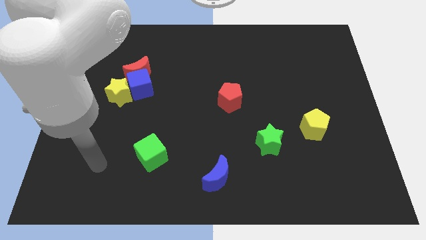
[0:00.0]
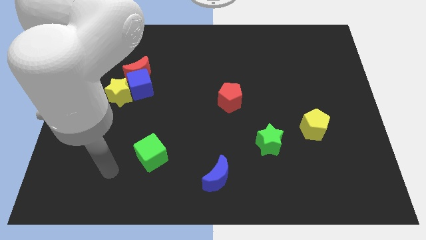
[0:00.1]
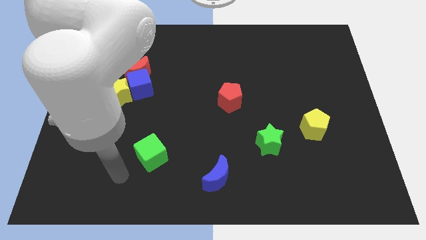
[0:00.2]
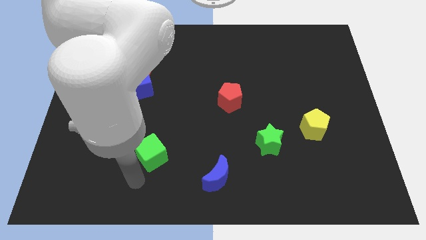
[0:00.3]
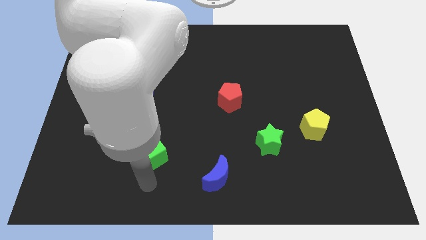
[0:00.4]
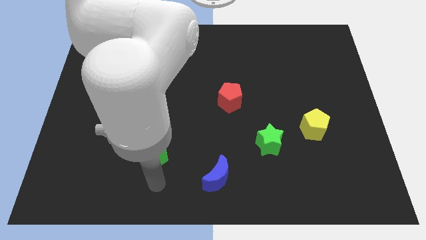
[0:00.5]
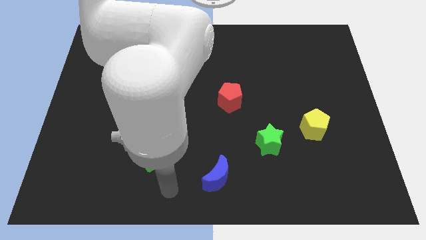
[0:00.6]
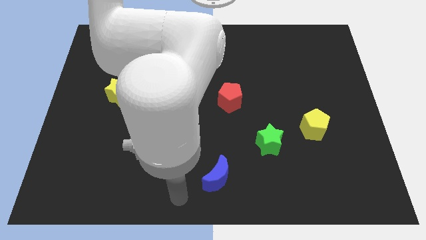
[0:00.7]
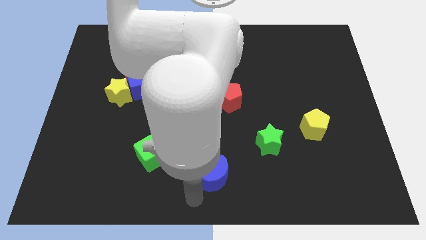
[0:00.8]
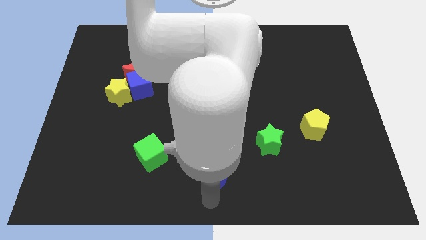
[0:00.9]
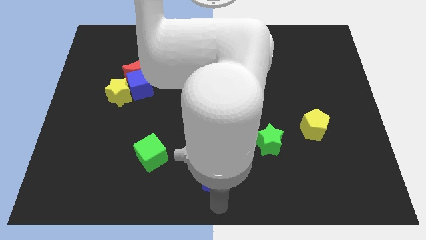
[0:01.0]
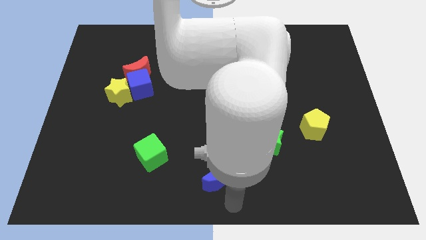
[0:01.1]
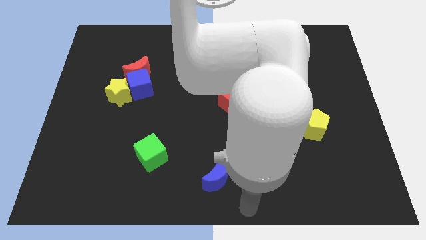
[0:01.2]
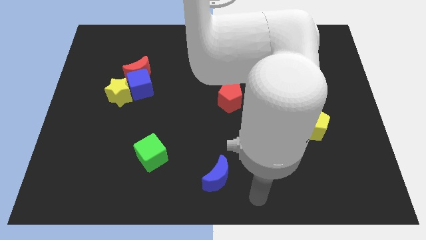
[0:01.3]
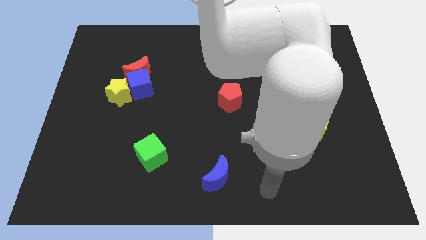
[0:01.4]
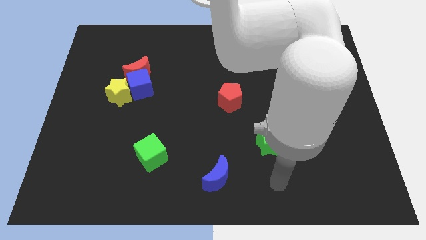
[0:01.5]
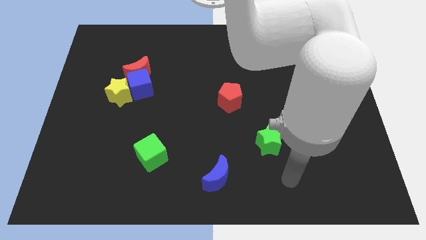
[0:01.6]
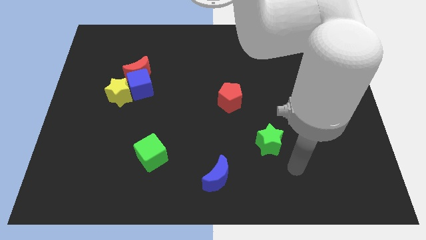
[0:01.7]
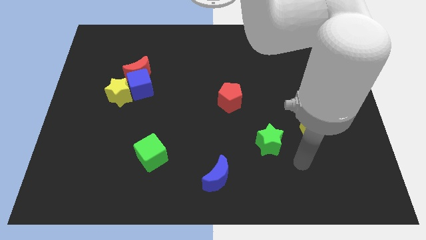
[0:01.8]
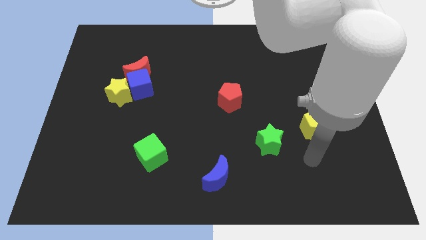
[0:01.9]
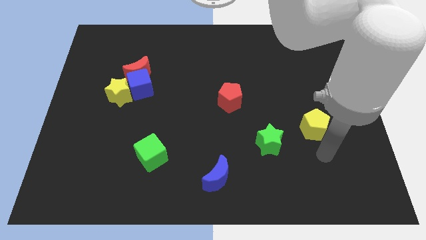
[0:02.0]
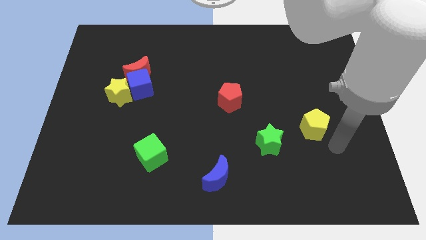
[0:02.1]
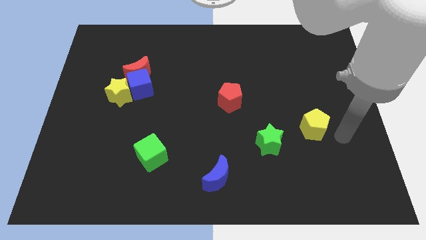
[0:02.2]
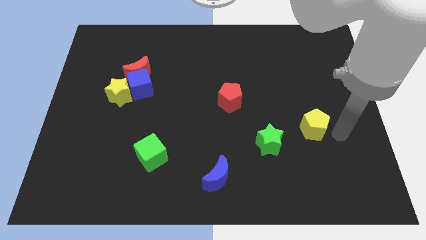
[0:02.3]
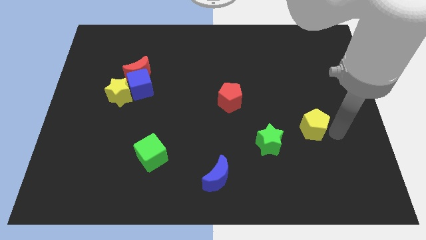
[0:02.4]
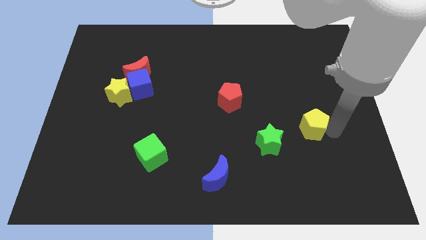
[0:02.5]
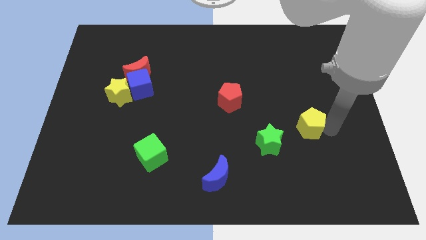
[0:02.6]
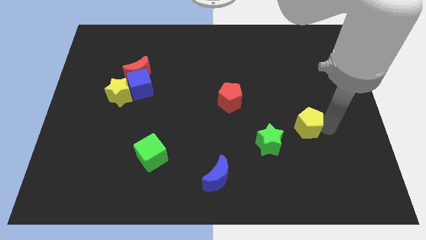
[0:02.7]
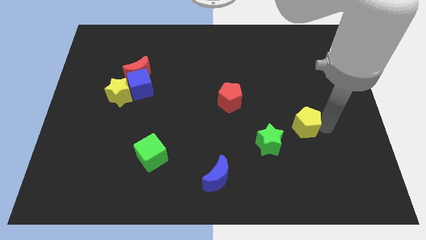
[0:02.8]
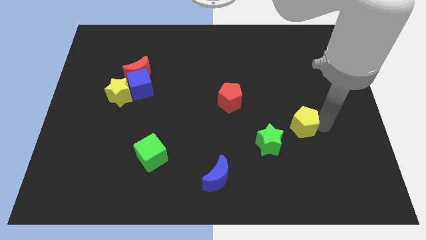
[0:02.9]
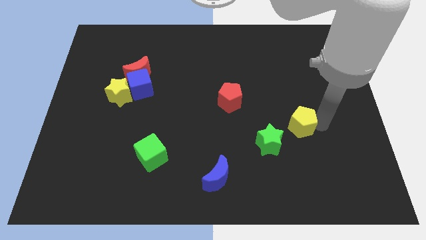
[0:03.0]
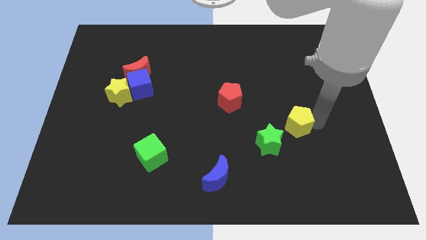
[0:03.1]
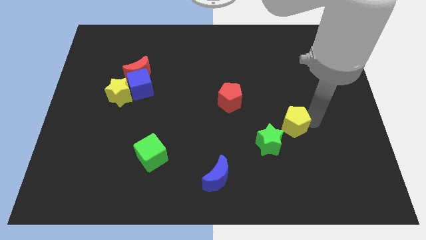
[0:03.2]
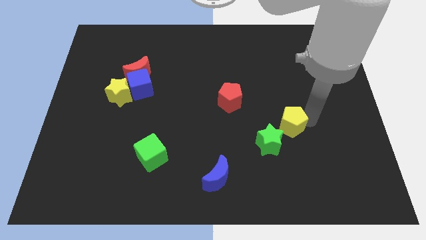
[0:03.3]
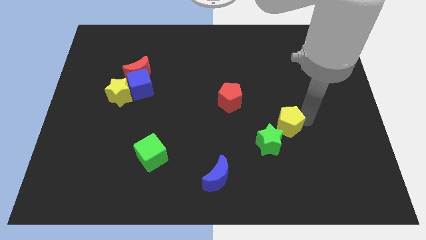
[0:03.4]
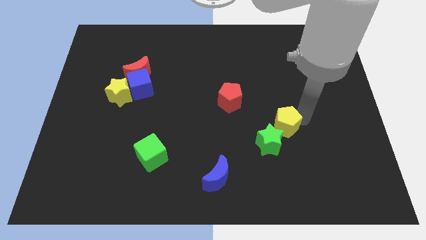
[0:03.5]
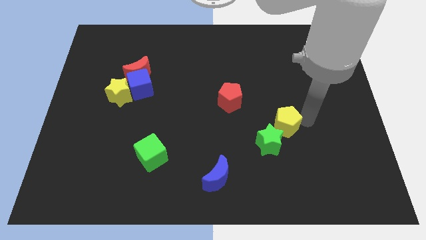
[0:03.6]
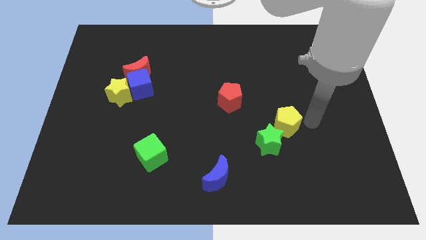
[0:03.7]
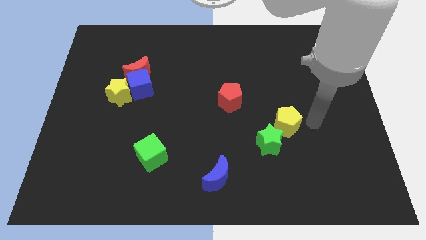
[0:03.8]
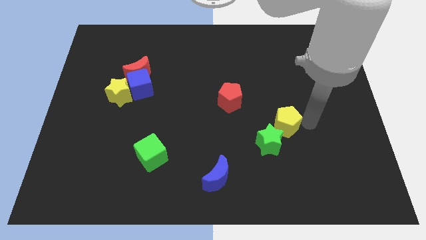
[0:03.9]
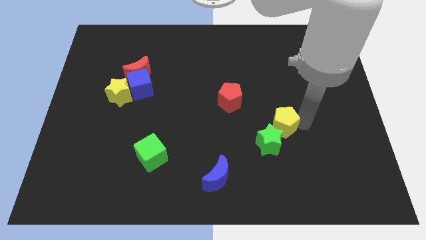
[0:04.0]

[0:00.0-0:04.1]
slightly move the yellow pentagon to the left

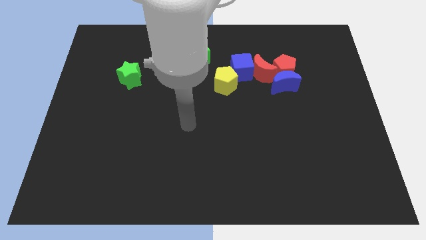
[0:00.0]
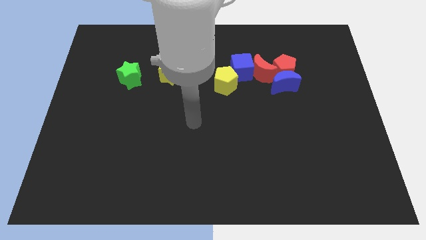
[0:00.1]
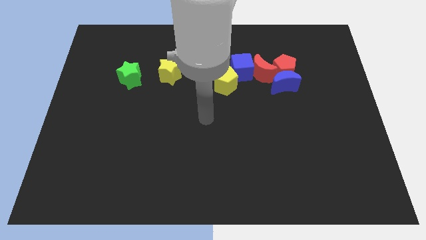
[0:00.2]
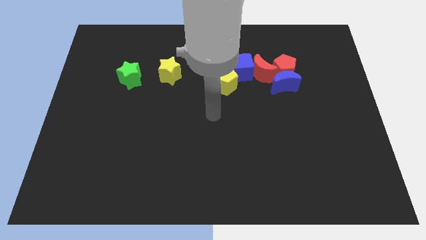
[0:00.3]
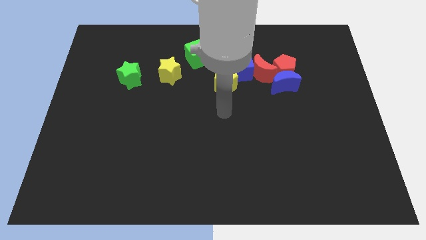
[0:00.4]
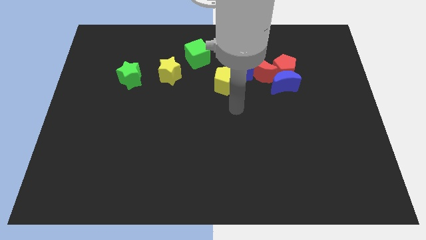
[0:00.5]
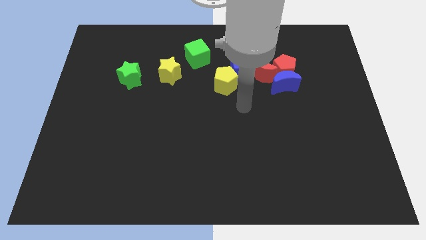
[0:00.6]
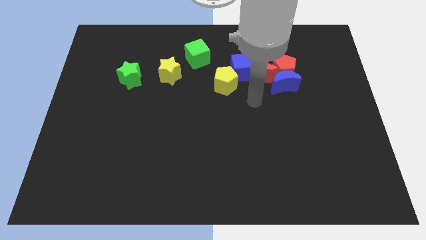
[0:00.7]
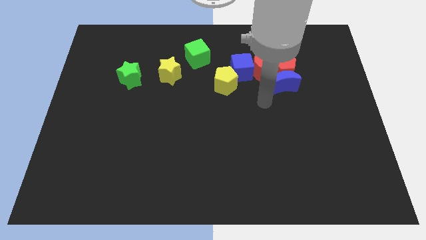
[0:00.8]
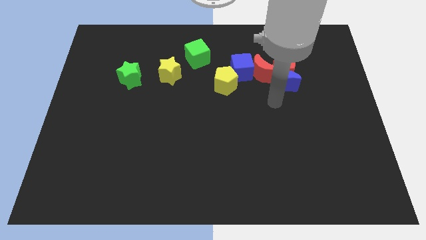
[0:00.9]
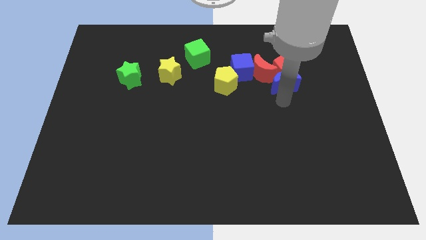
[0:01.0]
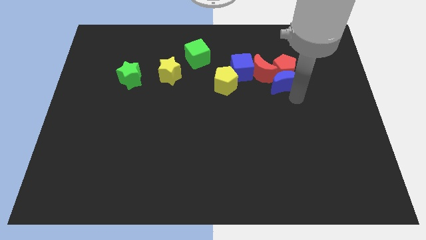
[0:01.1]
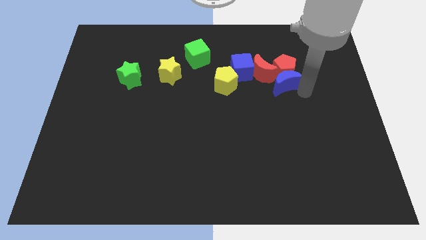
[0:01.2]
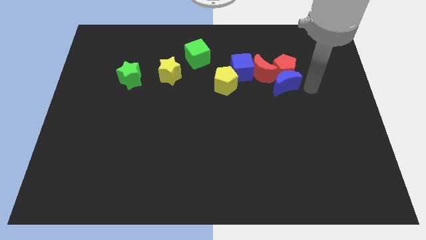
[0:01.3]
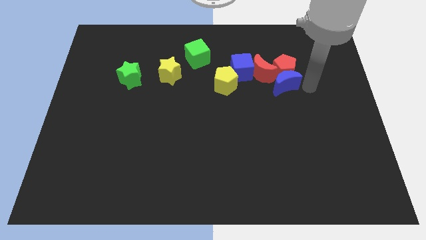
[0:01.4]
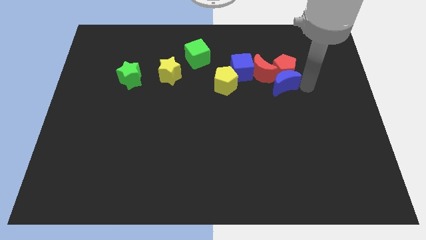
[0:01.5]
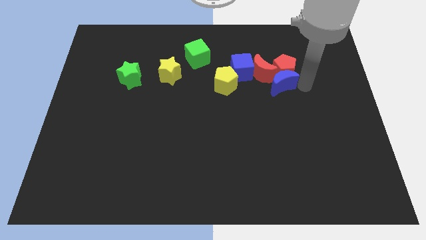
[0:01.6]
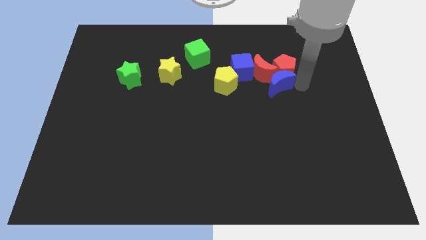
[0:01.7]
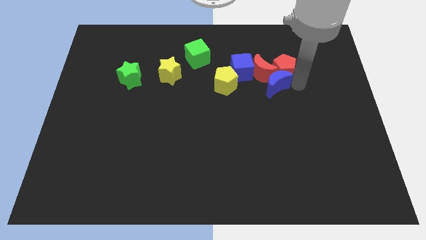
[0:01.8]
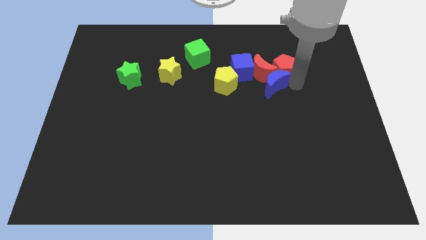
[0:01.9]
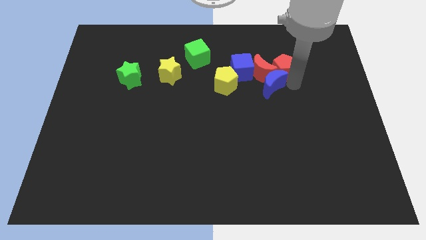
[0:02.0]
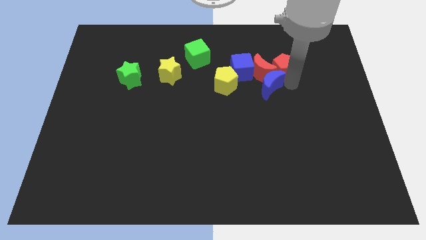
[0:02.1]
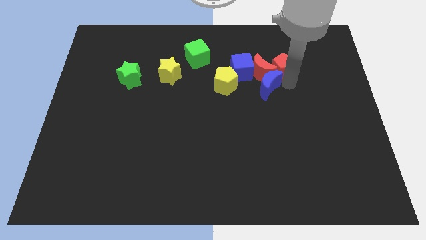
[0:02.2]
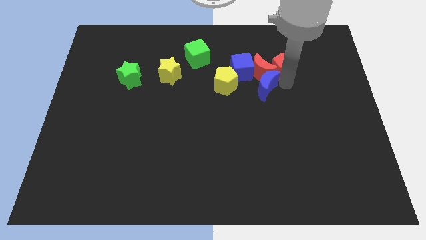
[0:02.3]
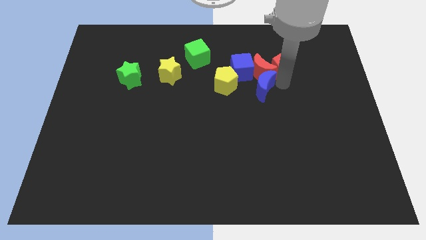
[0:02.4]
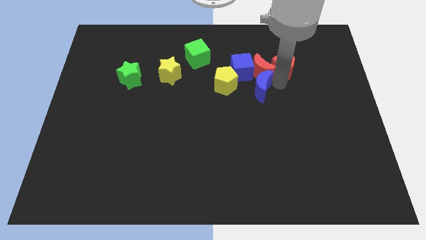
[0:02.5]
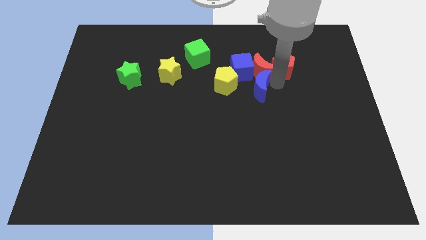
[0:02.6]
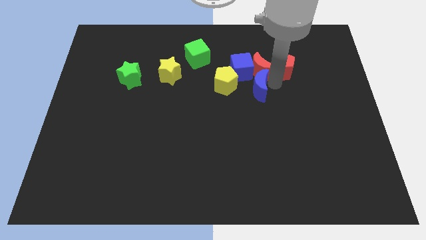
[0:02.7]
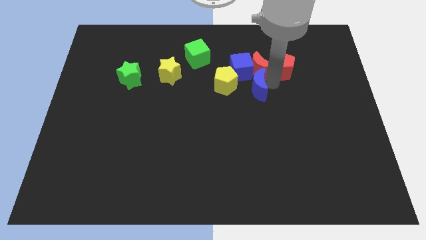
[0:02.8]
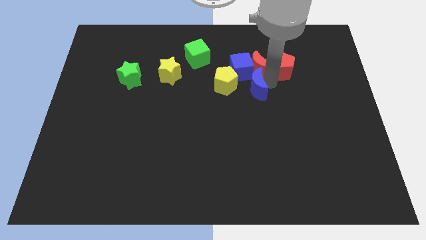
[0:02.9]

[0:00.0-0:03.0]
push the blue moon to the left slightly

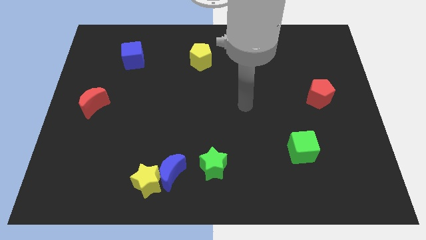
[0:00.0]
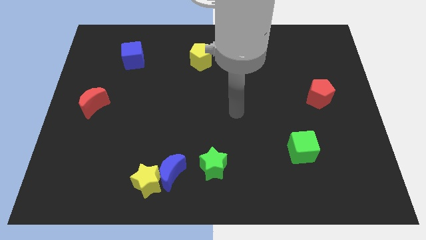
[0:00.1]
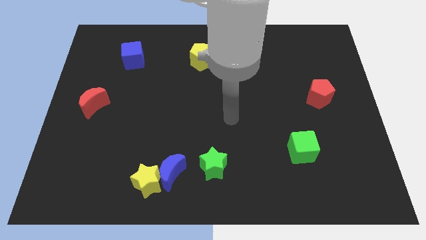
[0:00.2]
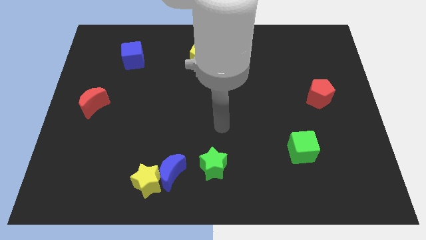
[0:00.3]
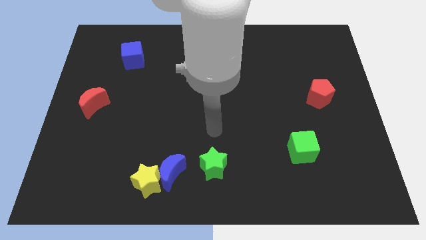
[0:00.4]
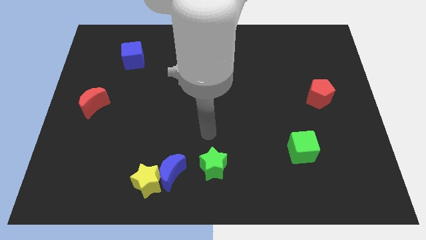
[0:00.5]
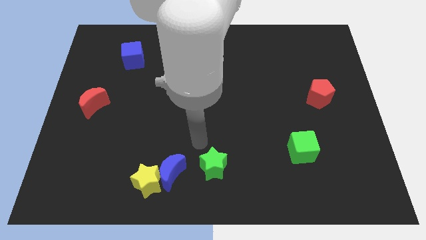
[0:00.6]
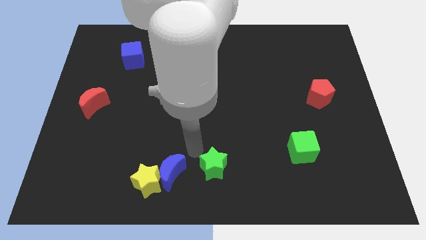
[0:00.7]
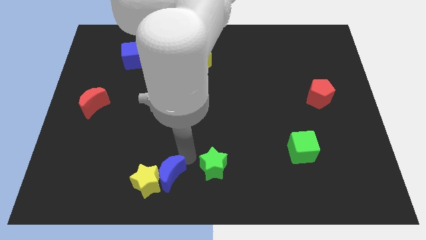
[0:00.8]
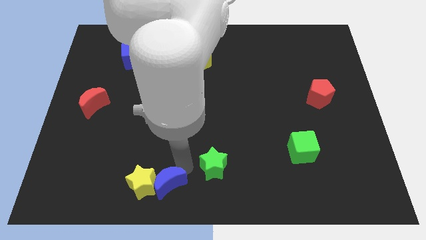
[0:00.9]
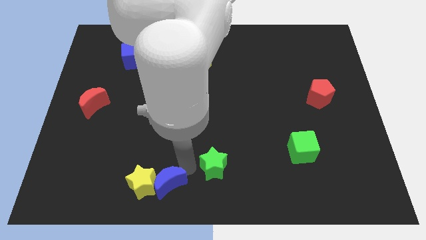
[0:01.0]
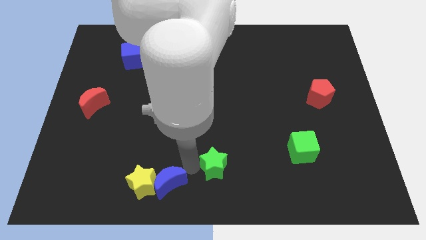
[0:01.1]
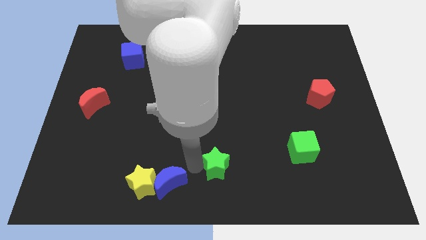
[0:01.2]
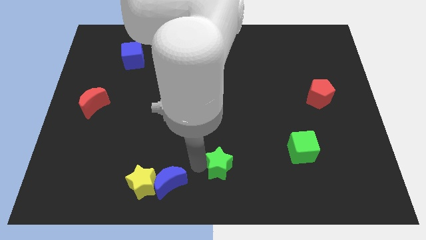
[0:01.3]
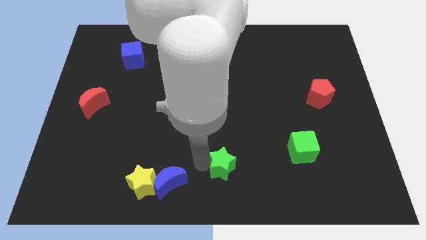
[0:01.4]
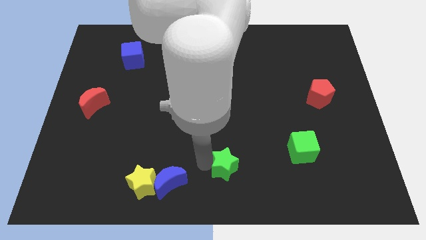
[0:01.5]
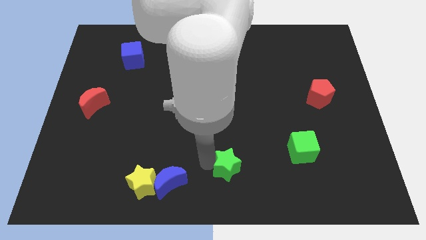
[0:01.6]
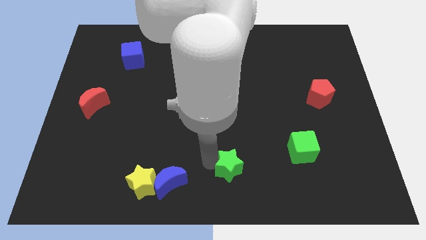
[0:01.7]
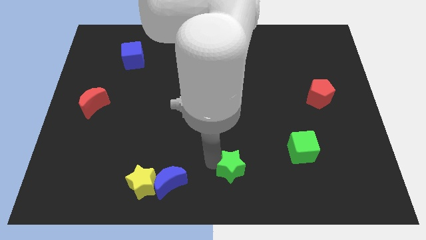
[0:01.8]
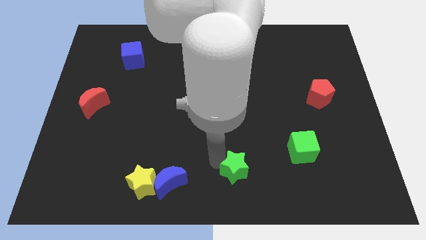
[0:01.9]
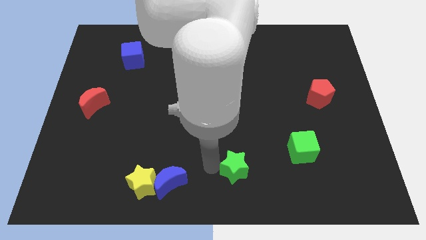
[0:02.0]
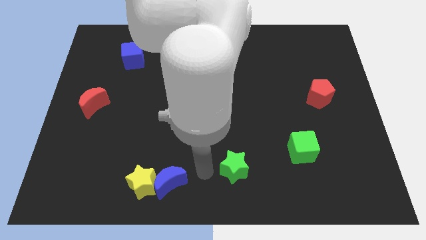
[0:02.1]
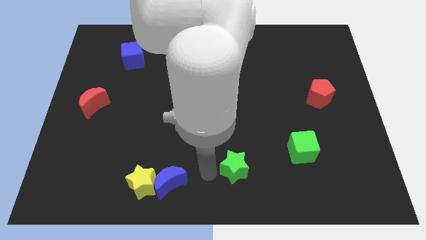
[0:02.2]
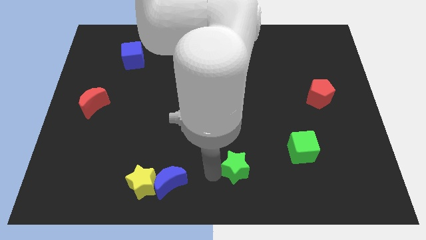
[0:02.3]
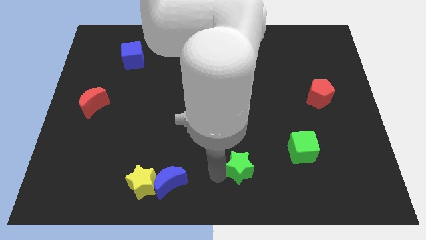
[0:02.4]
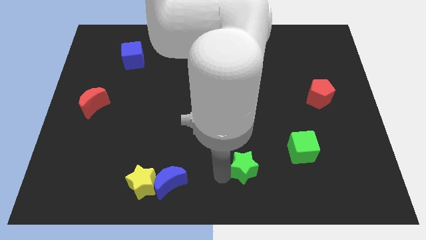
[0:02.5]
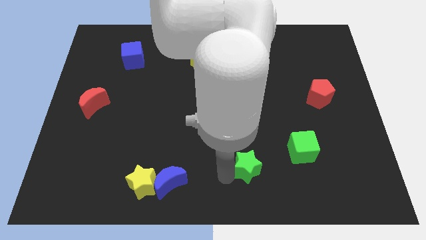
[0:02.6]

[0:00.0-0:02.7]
move the green star a little bit right
